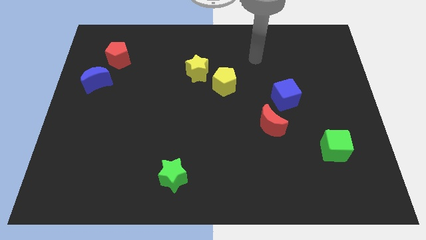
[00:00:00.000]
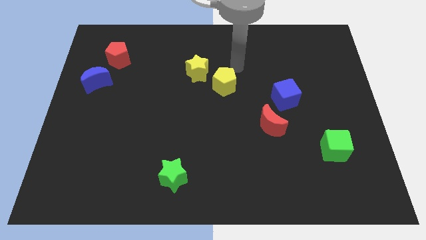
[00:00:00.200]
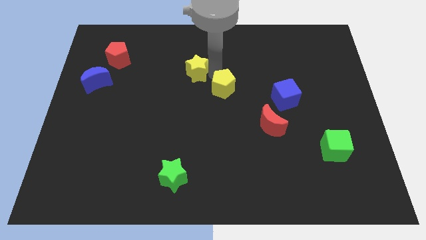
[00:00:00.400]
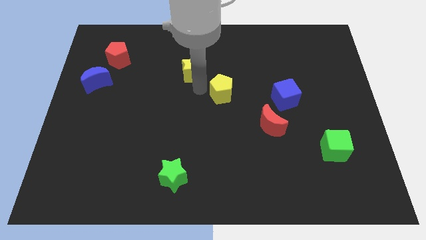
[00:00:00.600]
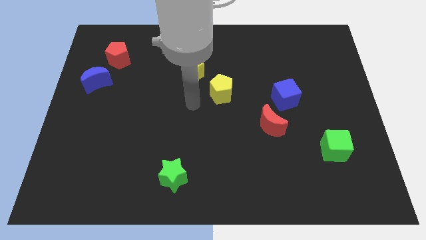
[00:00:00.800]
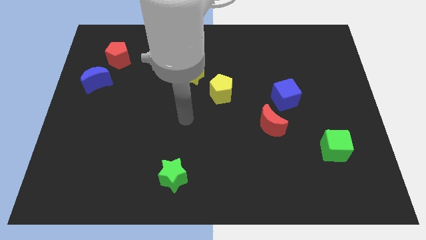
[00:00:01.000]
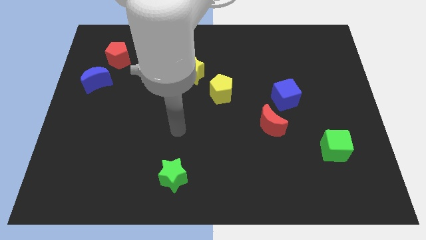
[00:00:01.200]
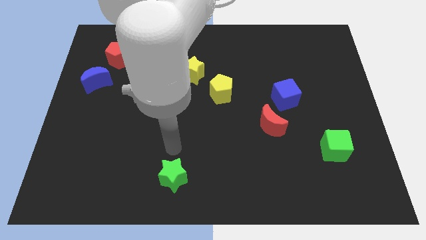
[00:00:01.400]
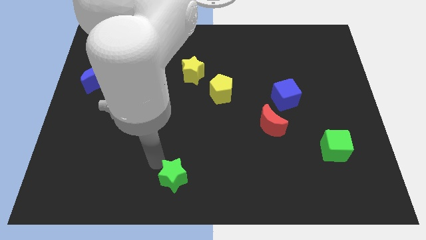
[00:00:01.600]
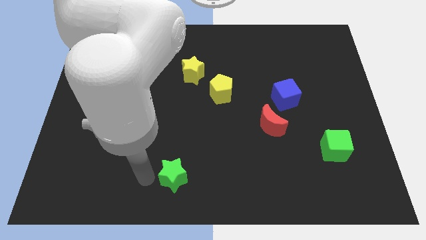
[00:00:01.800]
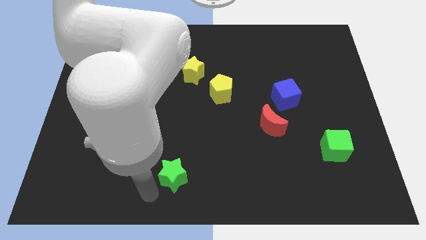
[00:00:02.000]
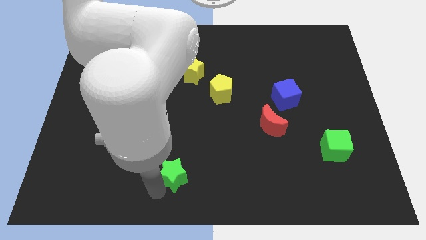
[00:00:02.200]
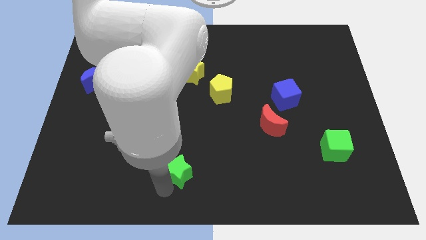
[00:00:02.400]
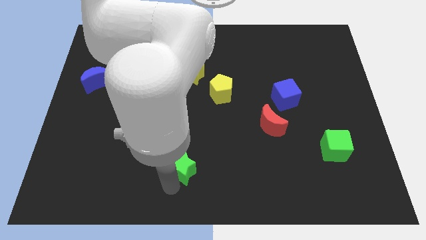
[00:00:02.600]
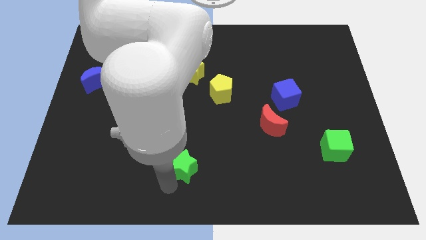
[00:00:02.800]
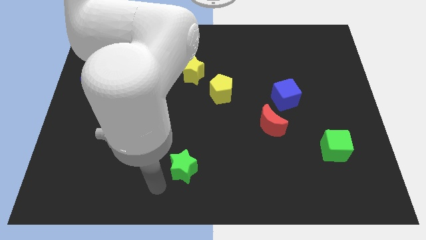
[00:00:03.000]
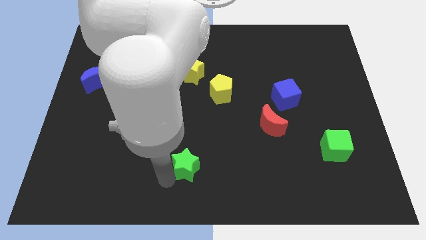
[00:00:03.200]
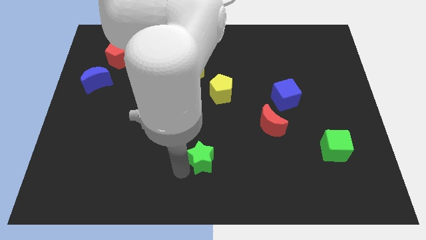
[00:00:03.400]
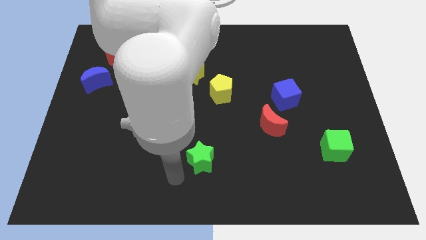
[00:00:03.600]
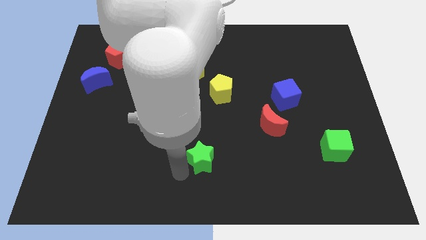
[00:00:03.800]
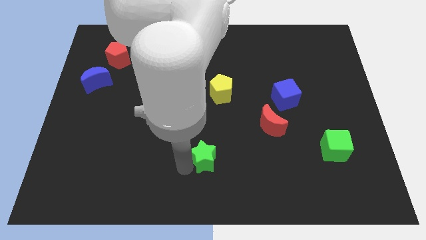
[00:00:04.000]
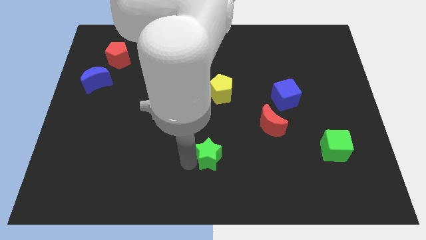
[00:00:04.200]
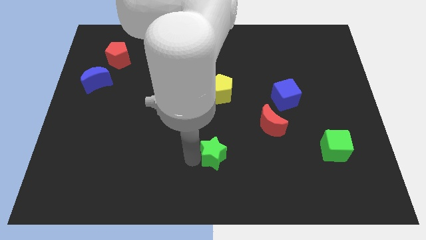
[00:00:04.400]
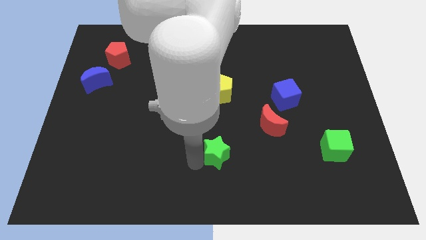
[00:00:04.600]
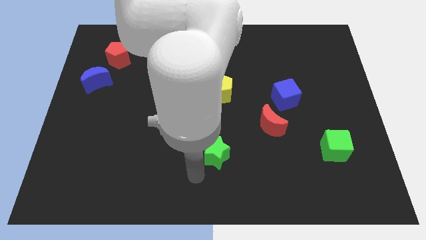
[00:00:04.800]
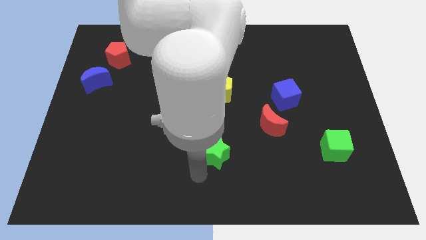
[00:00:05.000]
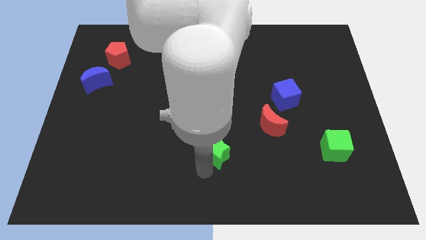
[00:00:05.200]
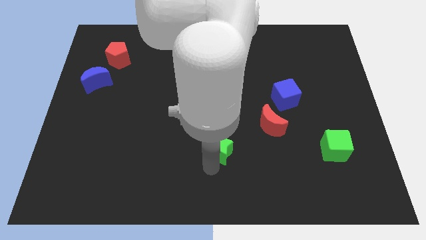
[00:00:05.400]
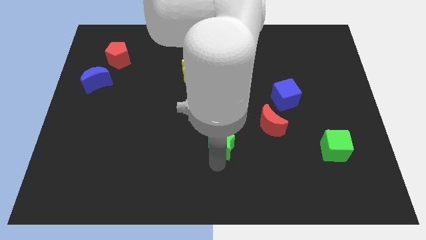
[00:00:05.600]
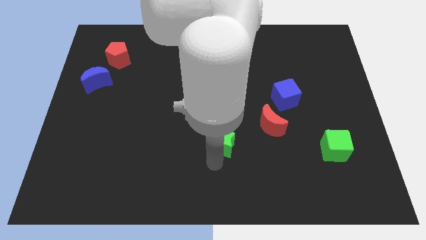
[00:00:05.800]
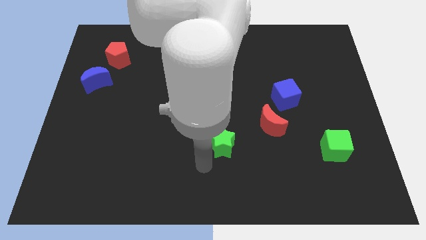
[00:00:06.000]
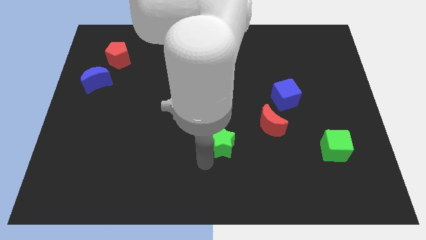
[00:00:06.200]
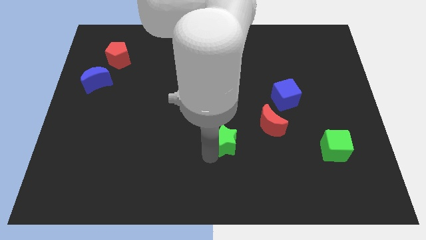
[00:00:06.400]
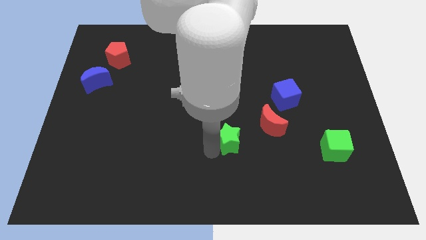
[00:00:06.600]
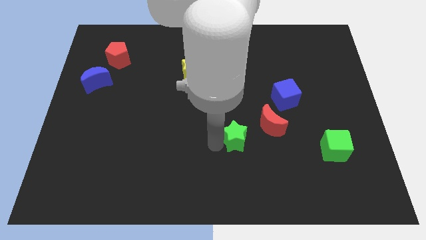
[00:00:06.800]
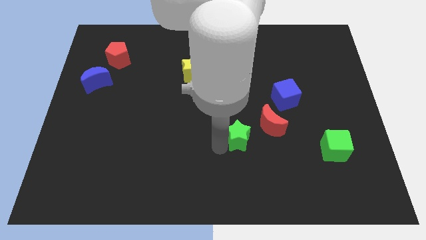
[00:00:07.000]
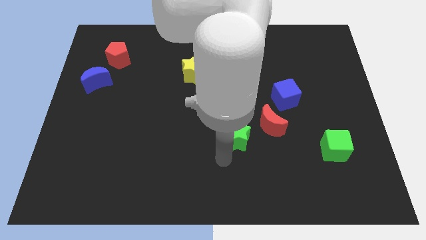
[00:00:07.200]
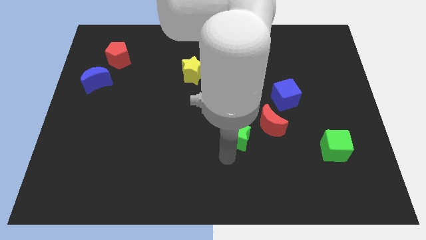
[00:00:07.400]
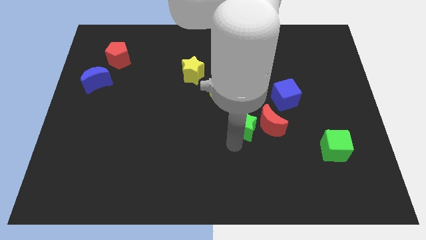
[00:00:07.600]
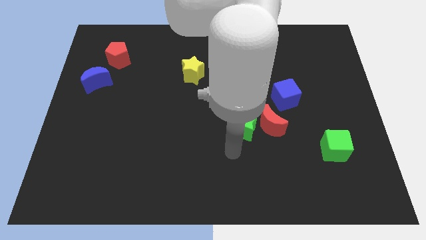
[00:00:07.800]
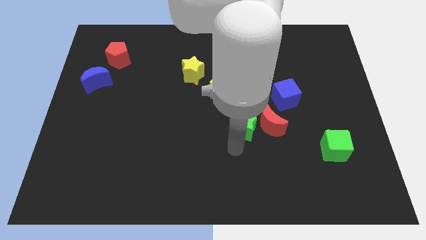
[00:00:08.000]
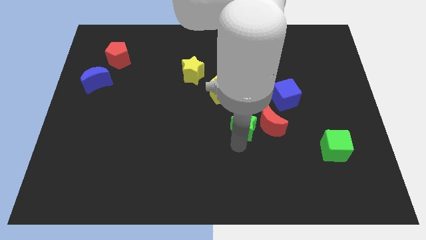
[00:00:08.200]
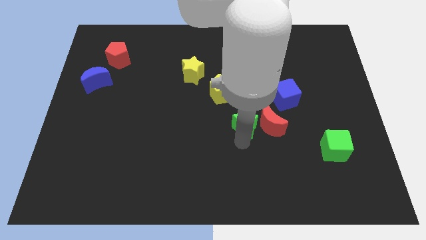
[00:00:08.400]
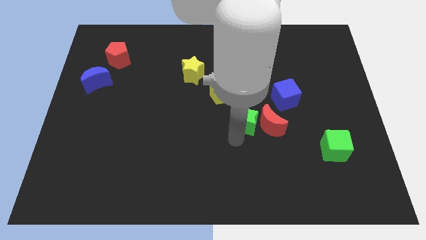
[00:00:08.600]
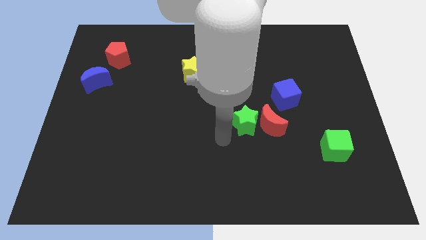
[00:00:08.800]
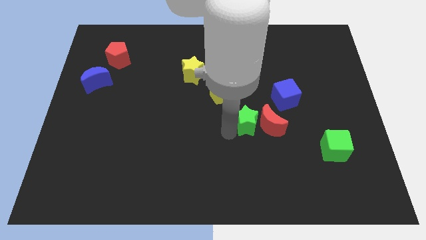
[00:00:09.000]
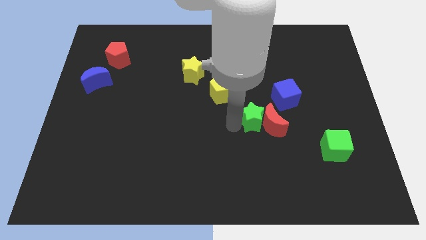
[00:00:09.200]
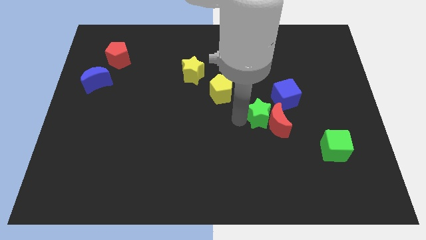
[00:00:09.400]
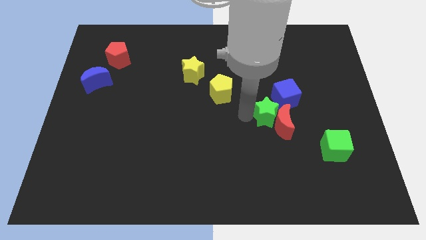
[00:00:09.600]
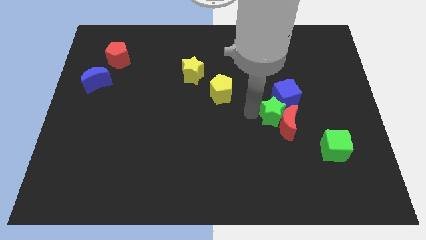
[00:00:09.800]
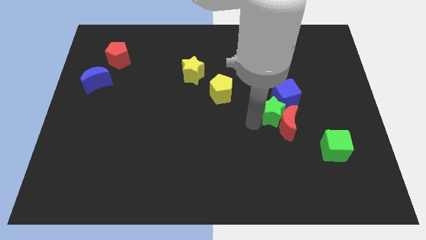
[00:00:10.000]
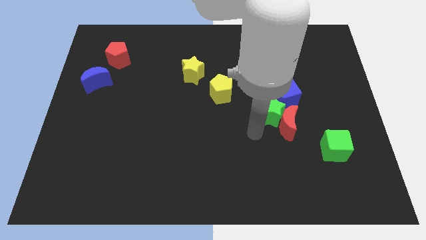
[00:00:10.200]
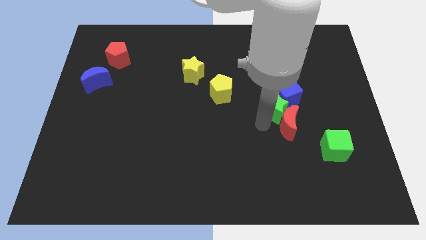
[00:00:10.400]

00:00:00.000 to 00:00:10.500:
push the green star to the blue cube

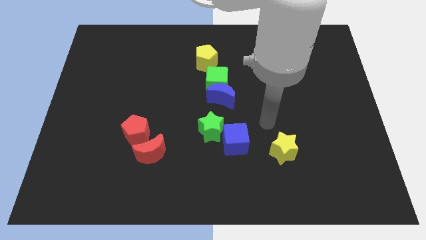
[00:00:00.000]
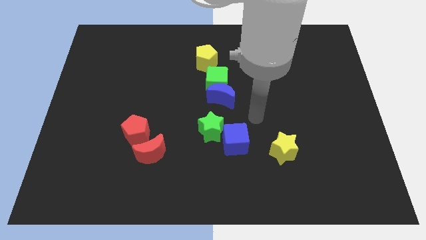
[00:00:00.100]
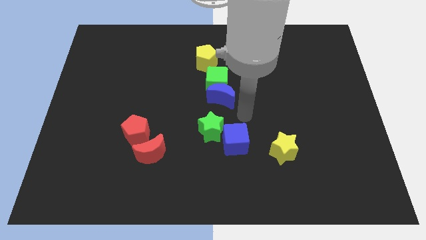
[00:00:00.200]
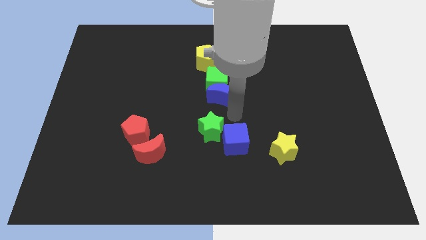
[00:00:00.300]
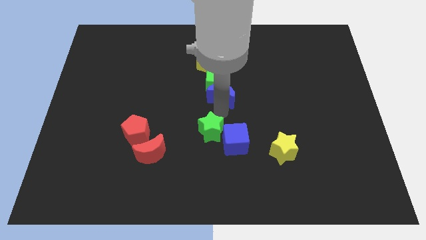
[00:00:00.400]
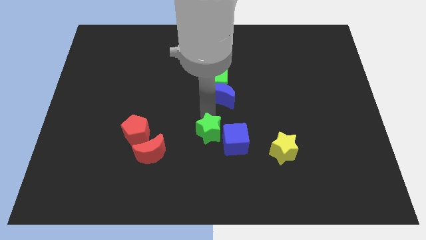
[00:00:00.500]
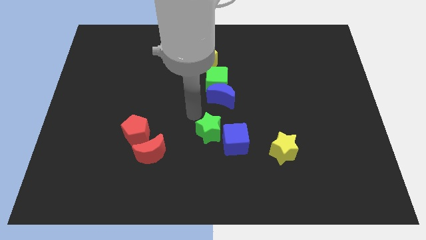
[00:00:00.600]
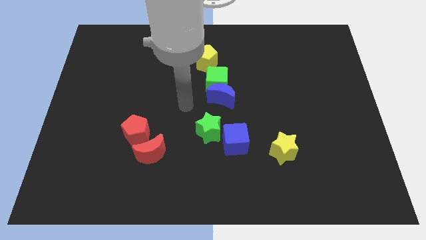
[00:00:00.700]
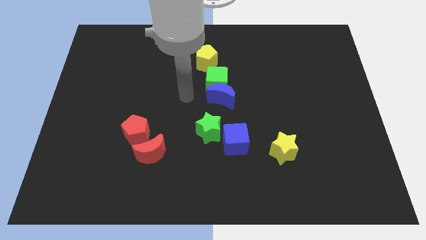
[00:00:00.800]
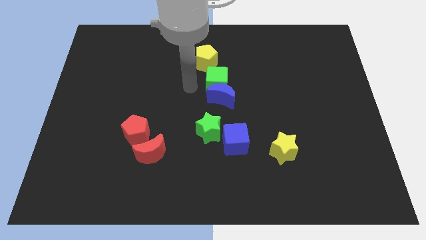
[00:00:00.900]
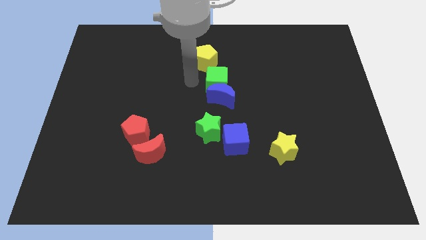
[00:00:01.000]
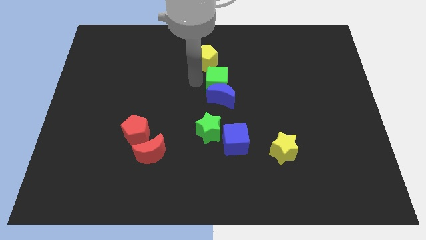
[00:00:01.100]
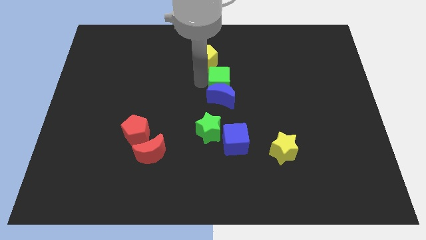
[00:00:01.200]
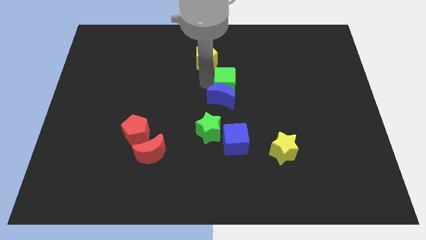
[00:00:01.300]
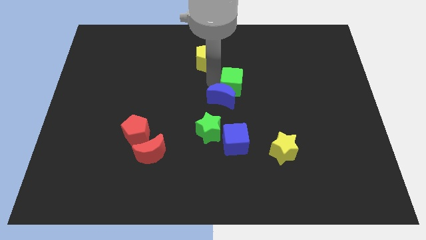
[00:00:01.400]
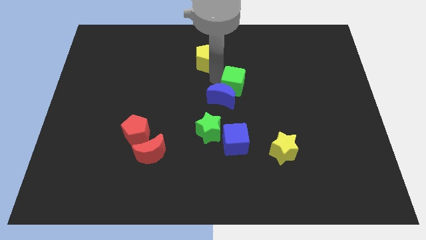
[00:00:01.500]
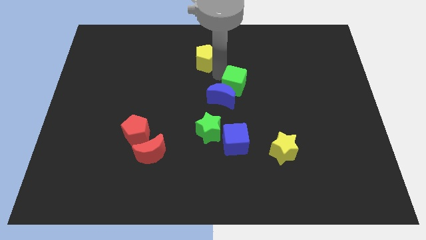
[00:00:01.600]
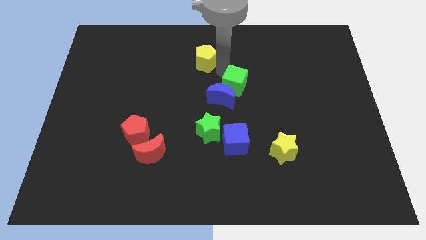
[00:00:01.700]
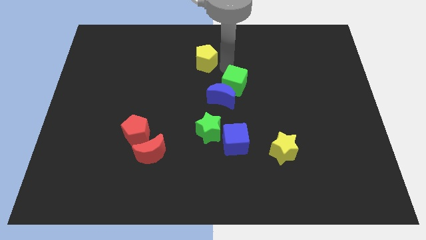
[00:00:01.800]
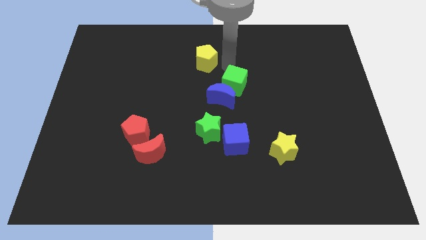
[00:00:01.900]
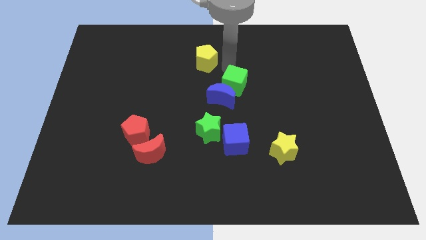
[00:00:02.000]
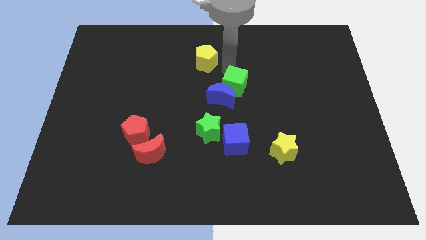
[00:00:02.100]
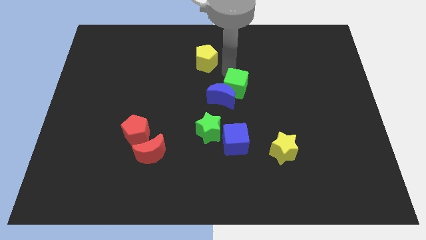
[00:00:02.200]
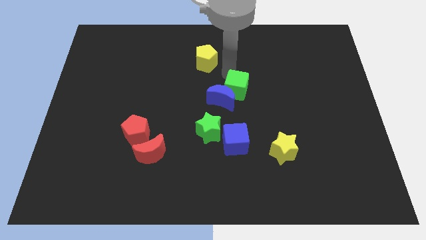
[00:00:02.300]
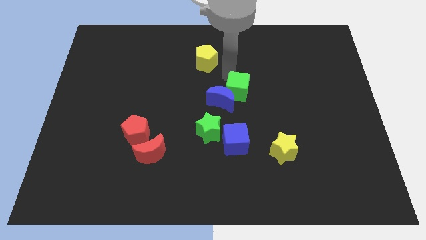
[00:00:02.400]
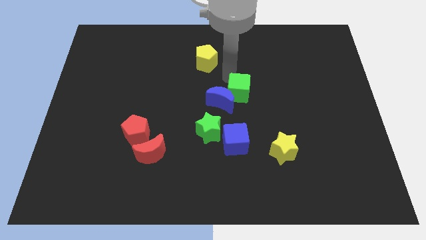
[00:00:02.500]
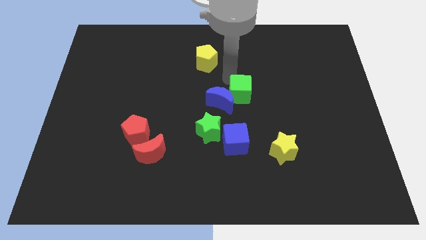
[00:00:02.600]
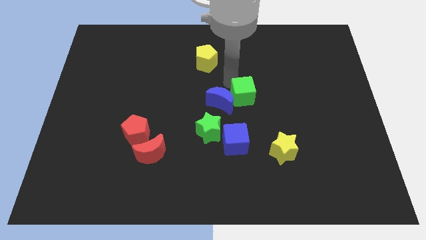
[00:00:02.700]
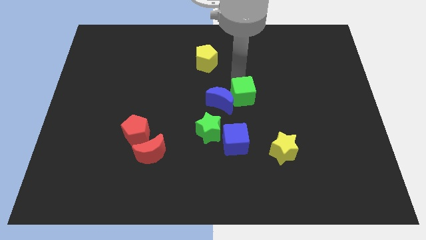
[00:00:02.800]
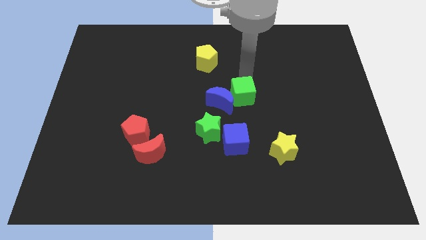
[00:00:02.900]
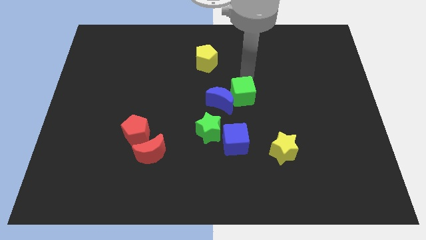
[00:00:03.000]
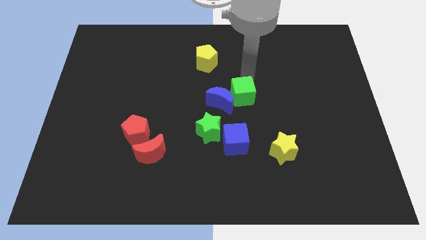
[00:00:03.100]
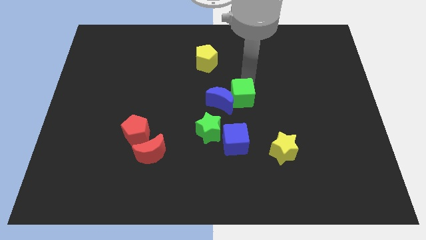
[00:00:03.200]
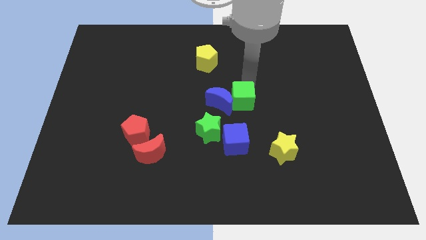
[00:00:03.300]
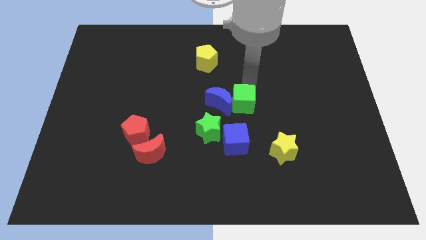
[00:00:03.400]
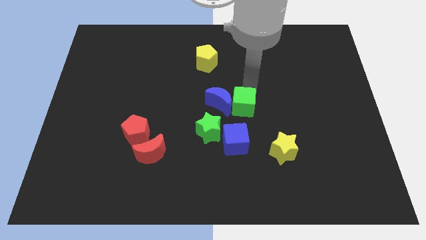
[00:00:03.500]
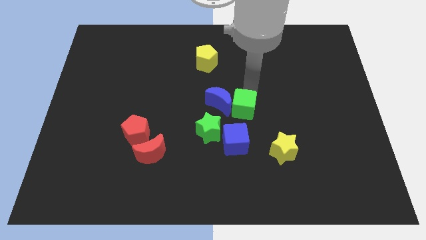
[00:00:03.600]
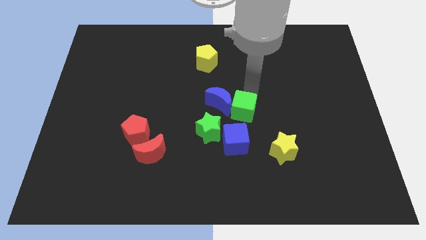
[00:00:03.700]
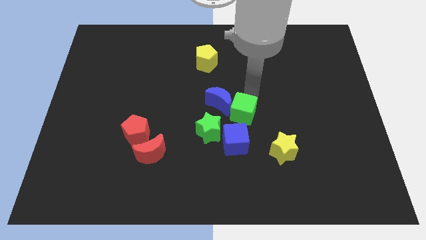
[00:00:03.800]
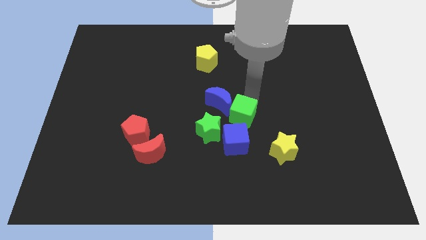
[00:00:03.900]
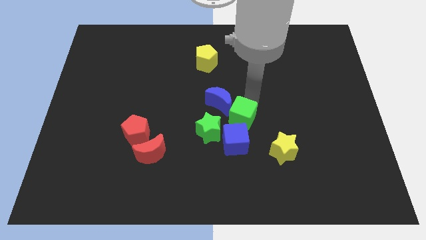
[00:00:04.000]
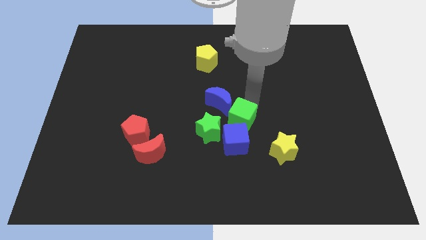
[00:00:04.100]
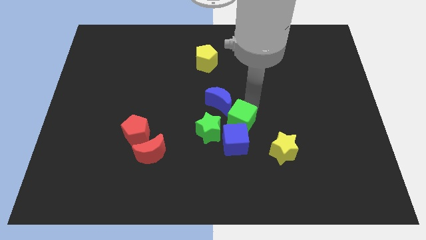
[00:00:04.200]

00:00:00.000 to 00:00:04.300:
push the green cube towards the blue cube
